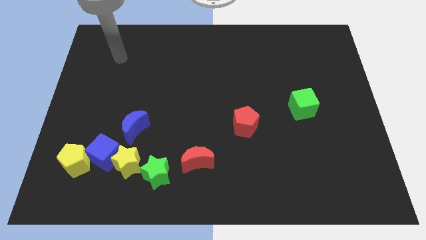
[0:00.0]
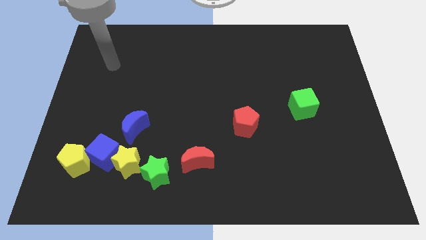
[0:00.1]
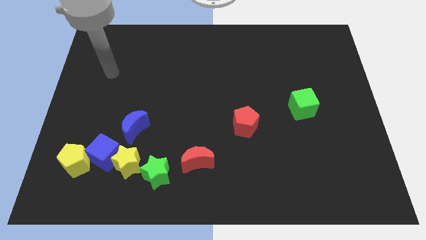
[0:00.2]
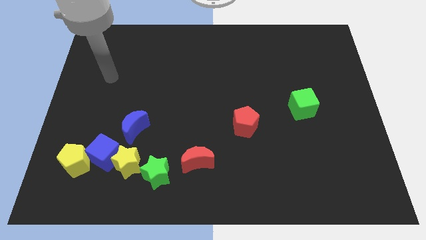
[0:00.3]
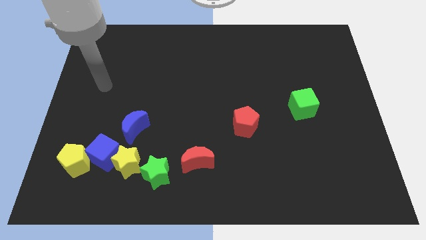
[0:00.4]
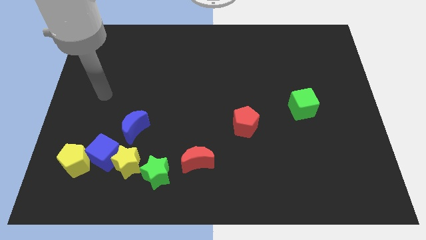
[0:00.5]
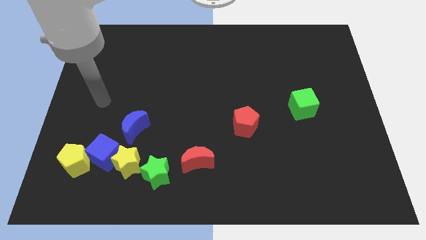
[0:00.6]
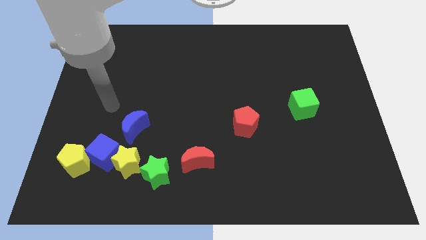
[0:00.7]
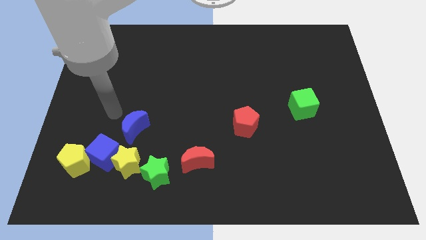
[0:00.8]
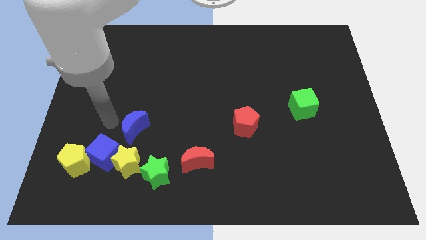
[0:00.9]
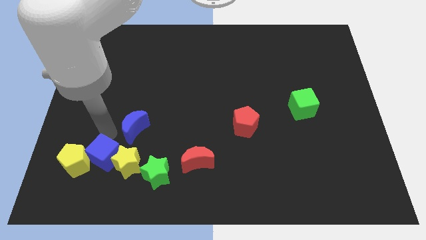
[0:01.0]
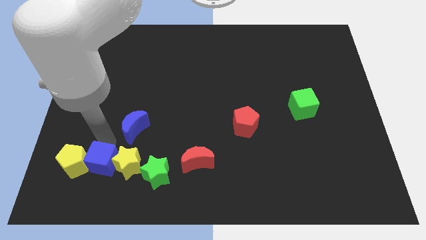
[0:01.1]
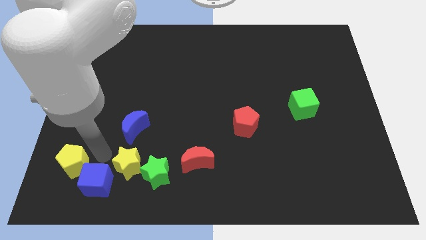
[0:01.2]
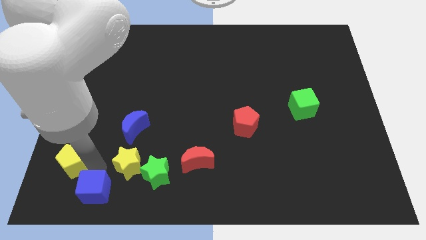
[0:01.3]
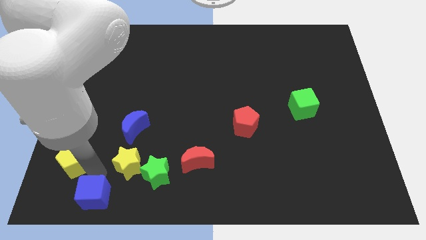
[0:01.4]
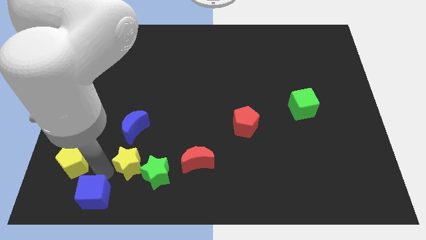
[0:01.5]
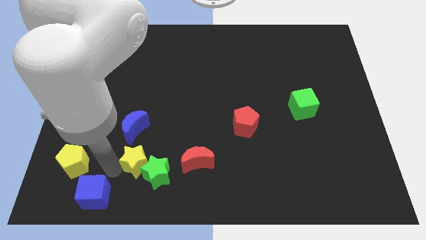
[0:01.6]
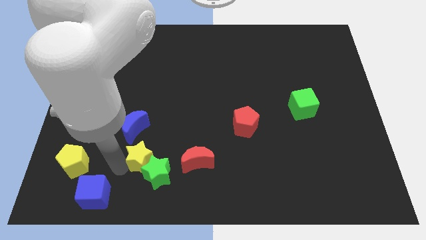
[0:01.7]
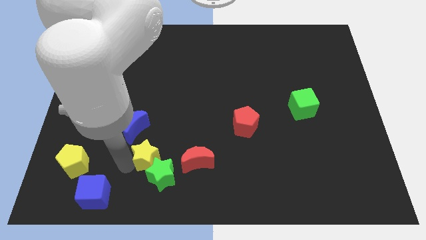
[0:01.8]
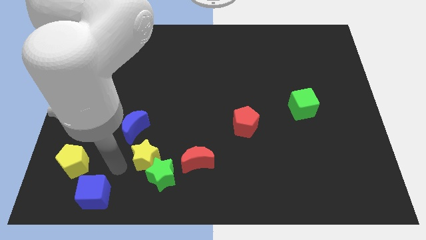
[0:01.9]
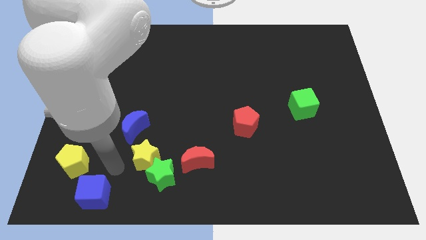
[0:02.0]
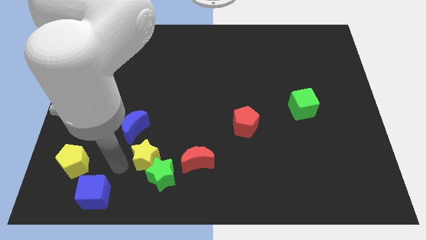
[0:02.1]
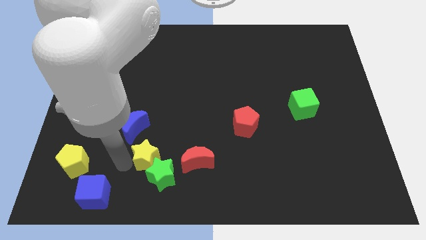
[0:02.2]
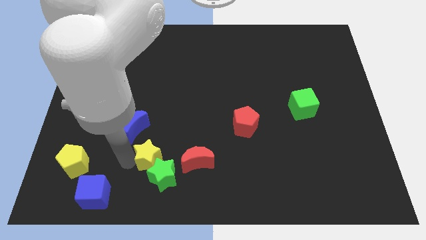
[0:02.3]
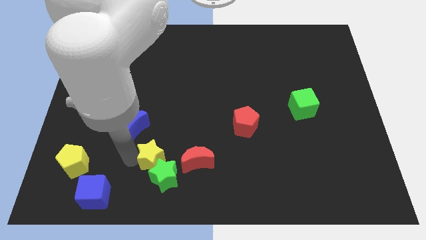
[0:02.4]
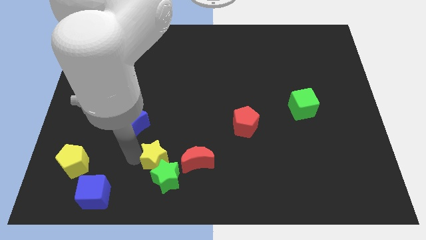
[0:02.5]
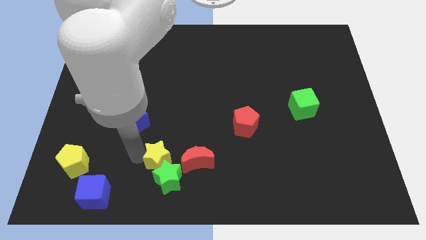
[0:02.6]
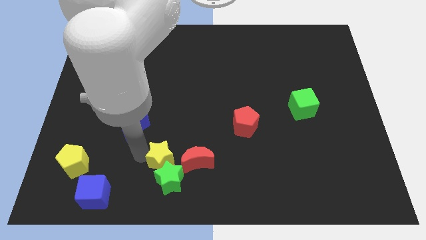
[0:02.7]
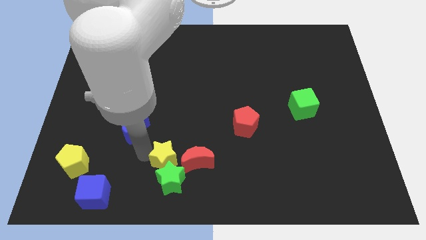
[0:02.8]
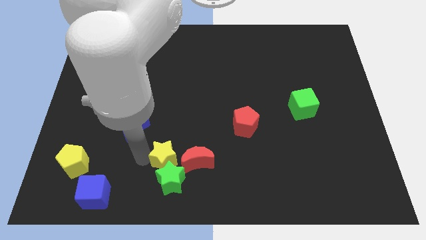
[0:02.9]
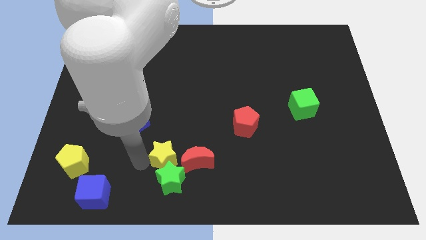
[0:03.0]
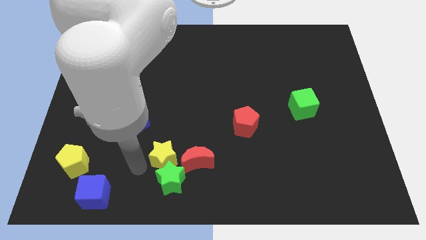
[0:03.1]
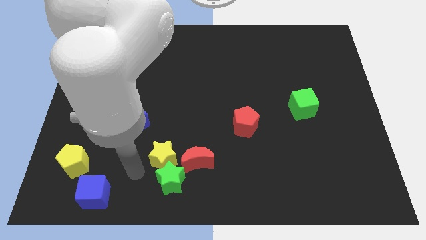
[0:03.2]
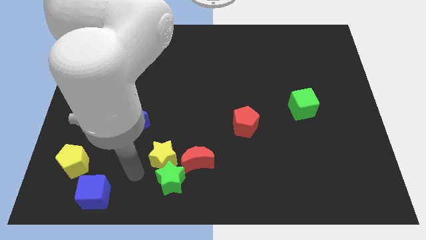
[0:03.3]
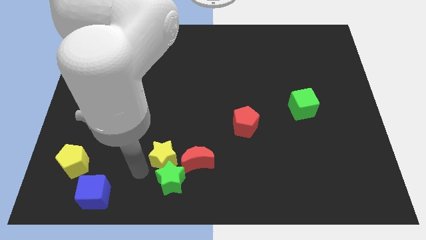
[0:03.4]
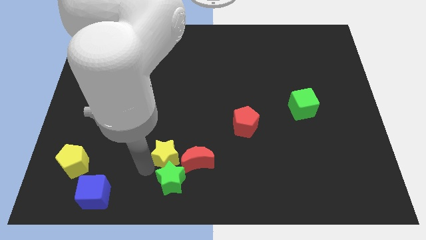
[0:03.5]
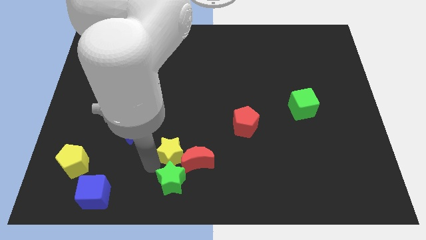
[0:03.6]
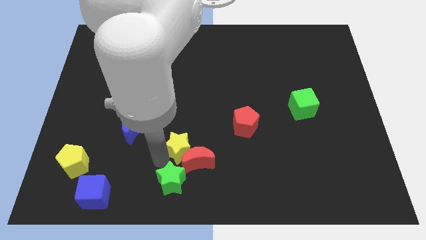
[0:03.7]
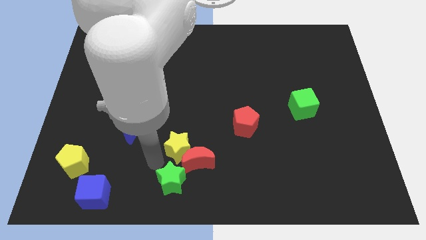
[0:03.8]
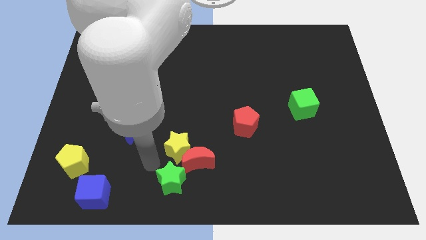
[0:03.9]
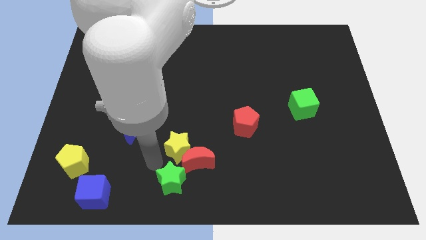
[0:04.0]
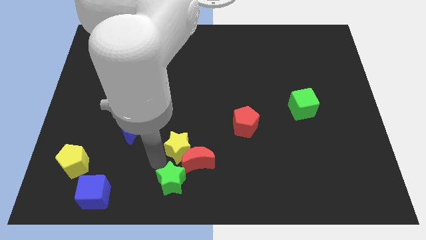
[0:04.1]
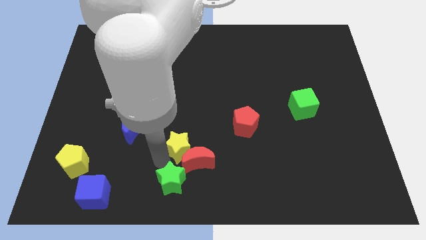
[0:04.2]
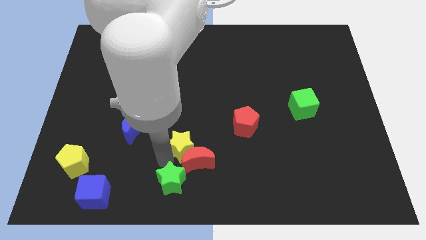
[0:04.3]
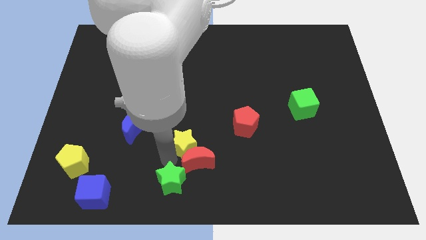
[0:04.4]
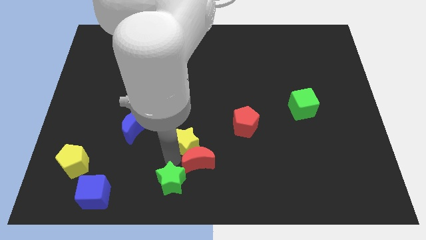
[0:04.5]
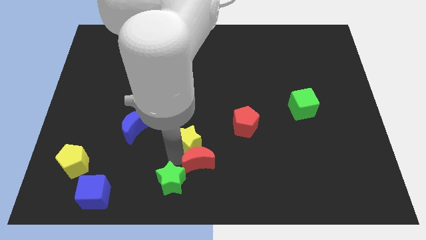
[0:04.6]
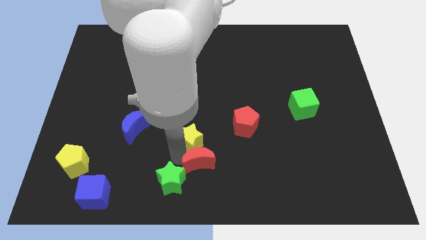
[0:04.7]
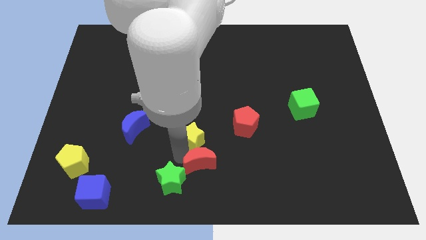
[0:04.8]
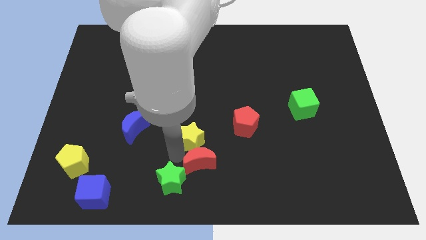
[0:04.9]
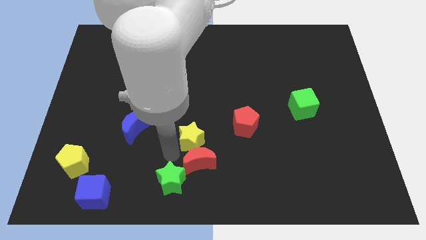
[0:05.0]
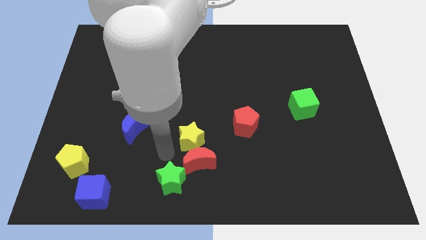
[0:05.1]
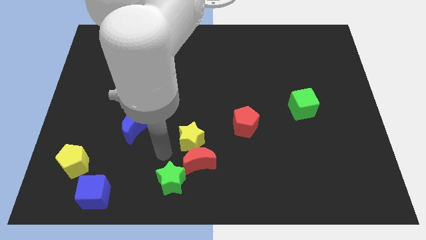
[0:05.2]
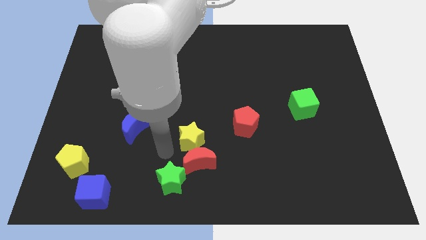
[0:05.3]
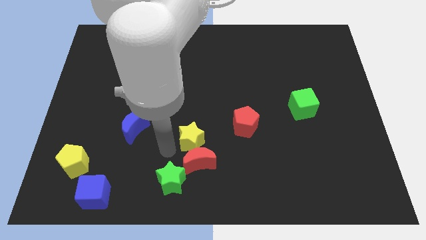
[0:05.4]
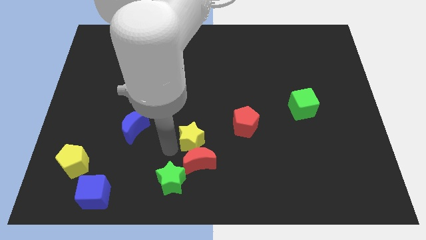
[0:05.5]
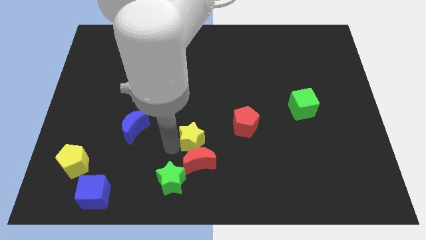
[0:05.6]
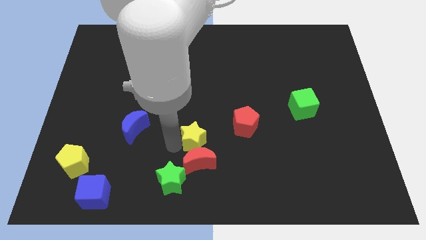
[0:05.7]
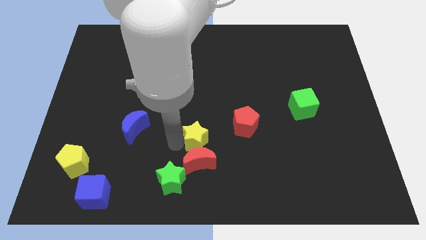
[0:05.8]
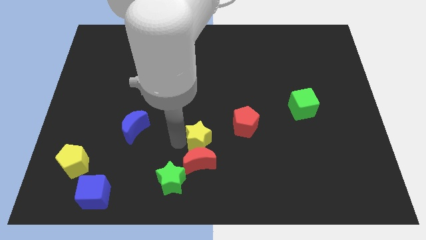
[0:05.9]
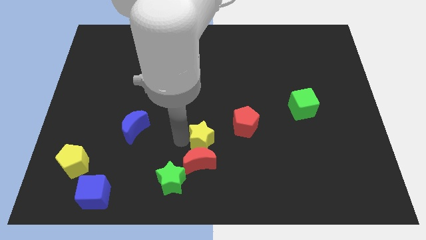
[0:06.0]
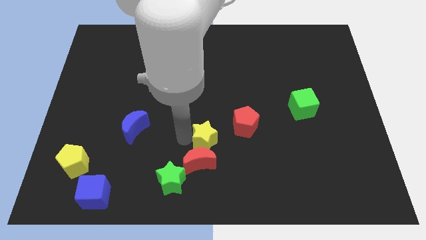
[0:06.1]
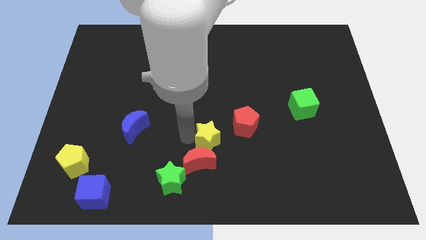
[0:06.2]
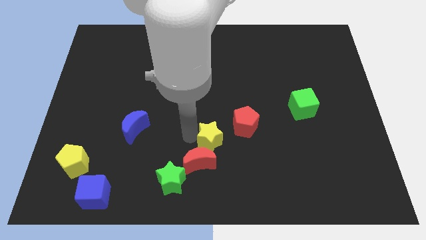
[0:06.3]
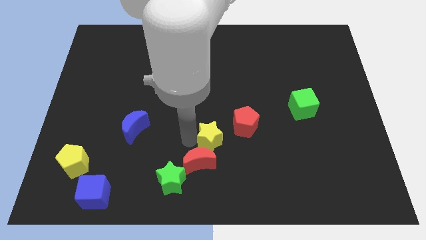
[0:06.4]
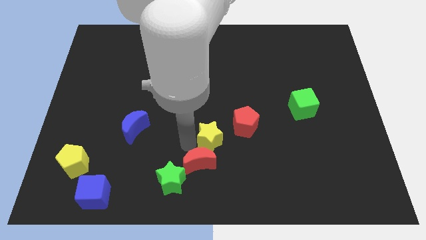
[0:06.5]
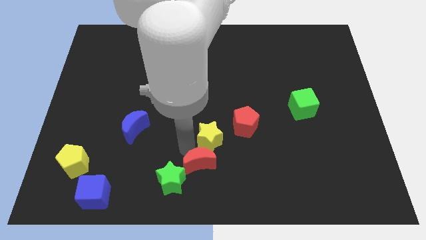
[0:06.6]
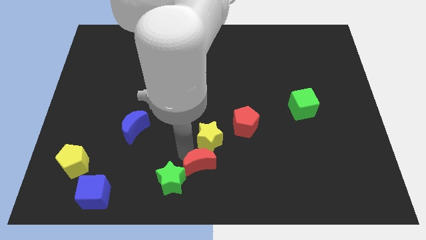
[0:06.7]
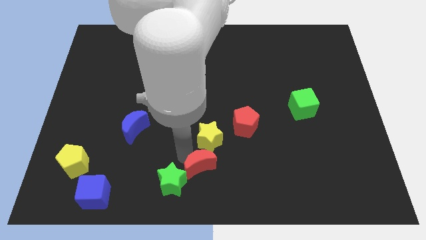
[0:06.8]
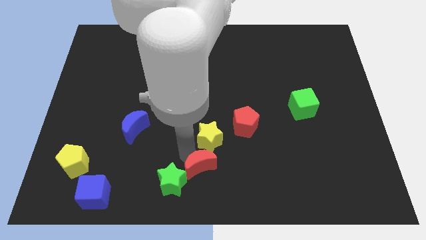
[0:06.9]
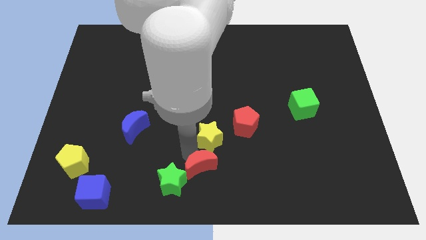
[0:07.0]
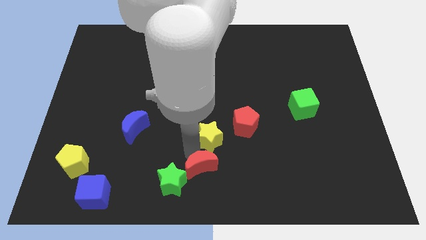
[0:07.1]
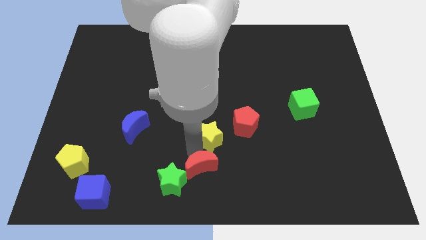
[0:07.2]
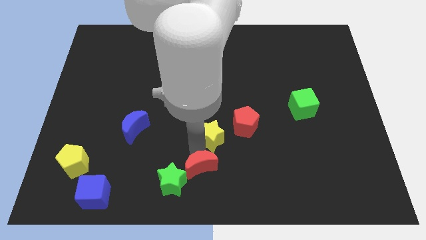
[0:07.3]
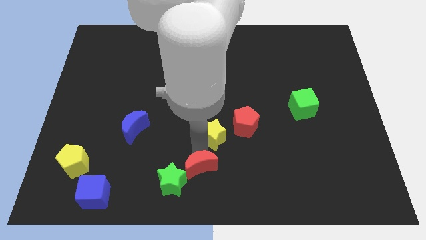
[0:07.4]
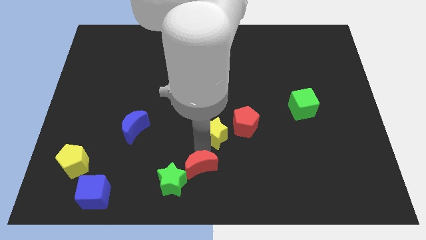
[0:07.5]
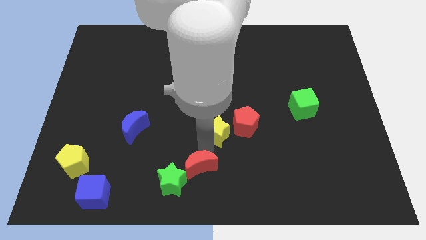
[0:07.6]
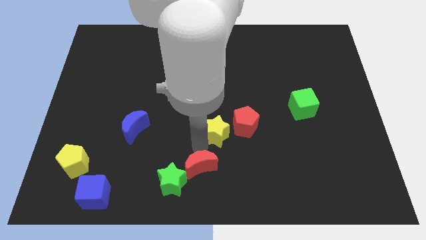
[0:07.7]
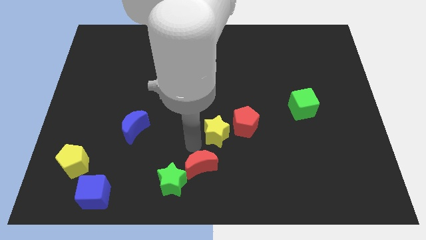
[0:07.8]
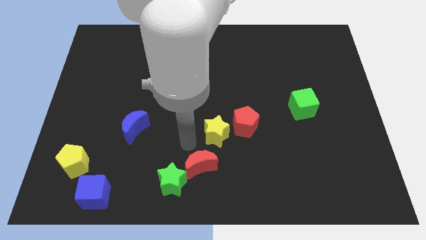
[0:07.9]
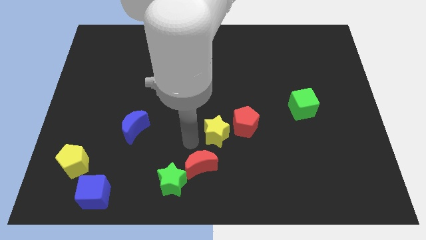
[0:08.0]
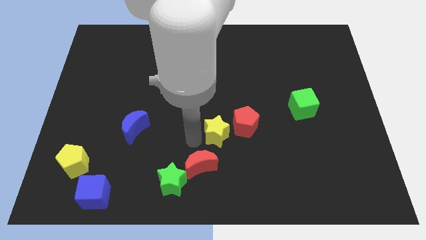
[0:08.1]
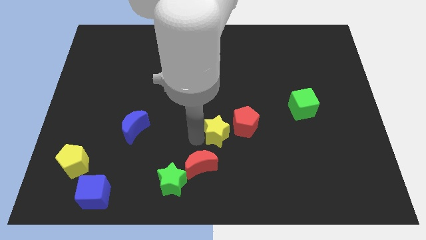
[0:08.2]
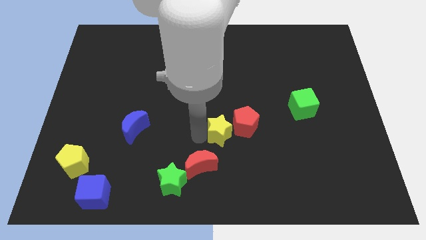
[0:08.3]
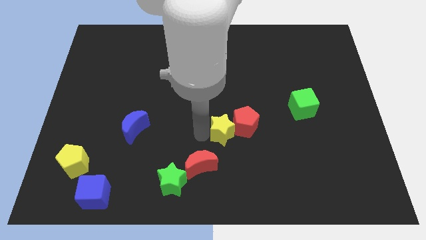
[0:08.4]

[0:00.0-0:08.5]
move the yellow star close to the red pentagon
